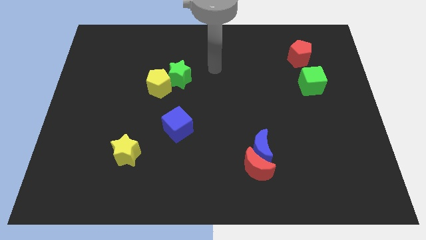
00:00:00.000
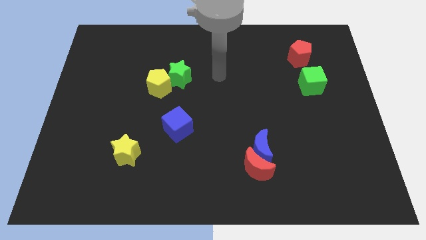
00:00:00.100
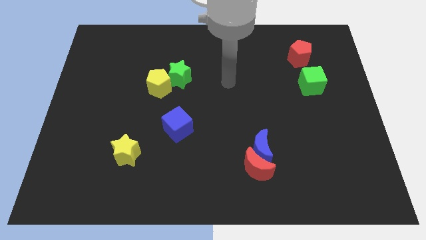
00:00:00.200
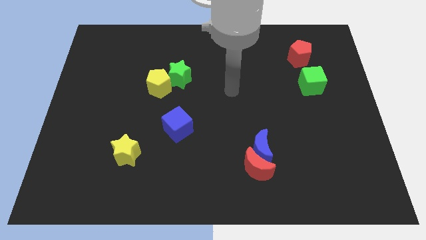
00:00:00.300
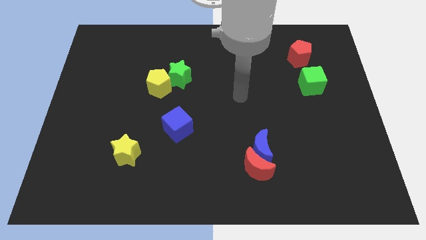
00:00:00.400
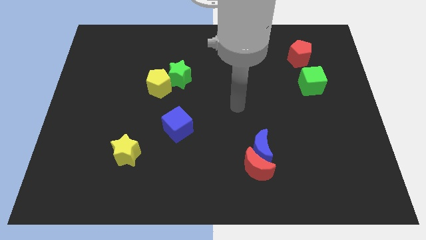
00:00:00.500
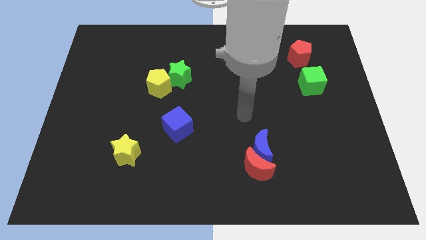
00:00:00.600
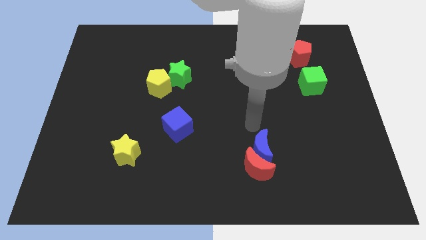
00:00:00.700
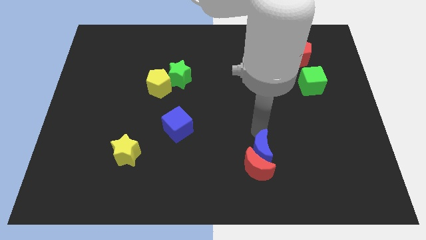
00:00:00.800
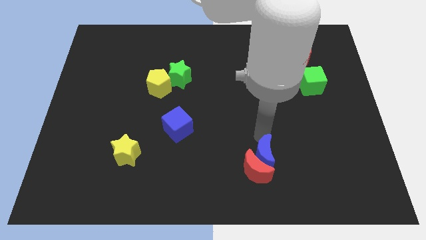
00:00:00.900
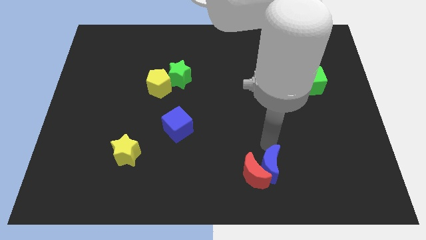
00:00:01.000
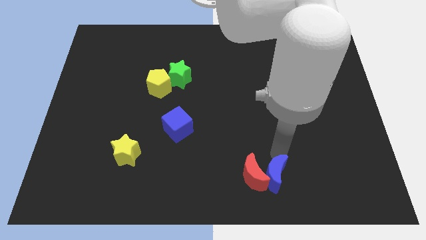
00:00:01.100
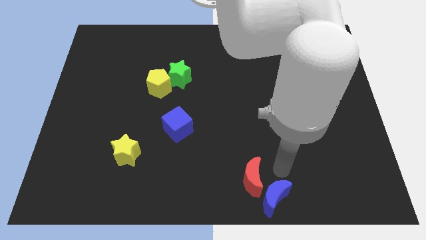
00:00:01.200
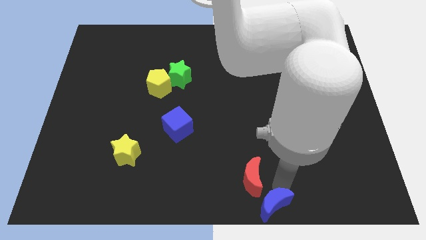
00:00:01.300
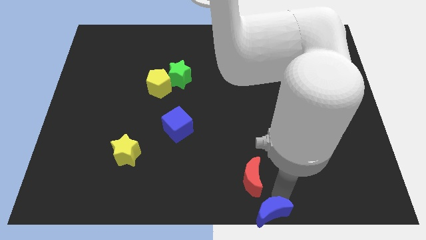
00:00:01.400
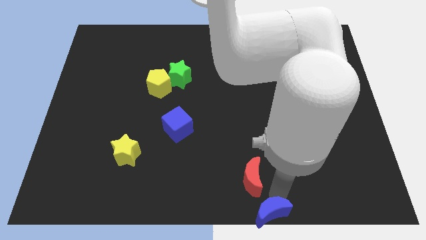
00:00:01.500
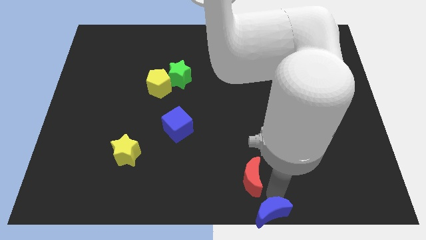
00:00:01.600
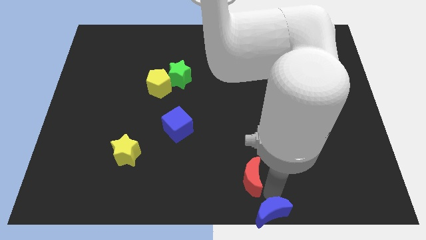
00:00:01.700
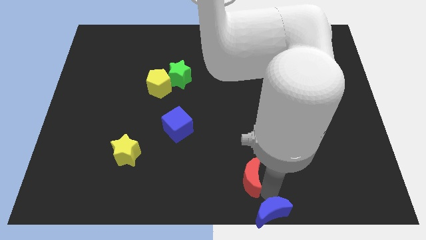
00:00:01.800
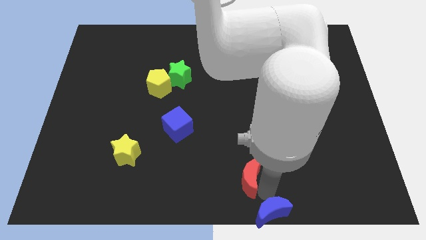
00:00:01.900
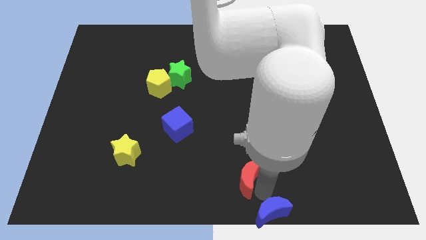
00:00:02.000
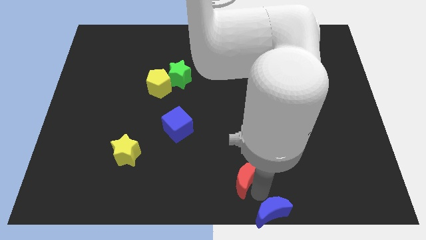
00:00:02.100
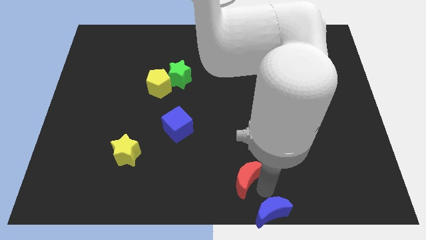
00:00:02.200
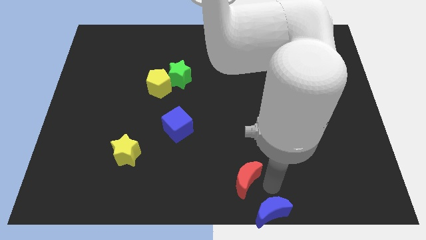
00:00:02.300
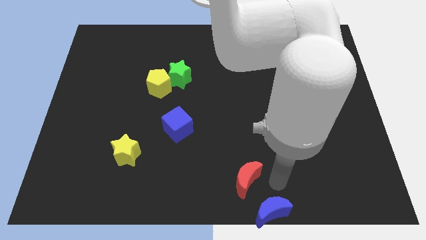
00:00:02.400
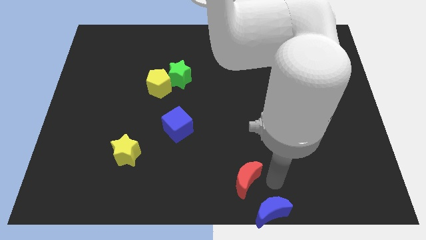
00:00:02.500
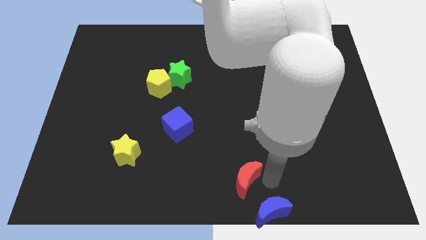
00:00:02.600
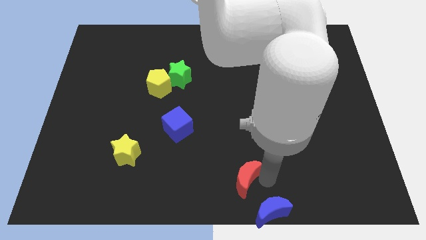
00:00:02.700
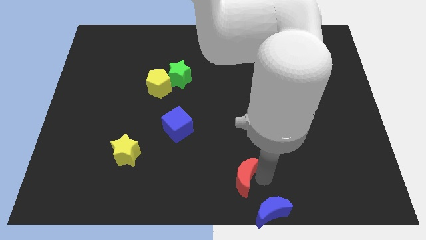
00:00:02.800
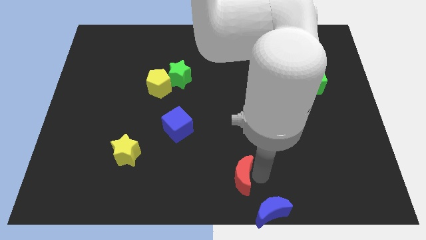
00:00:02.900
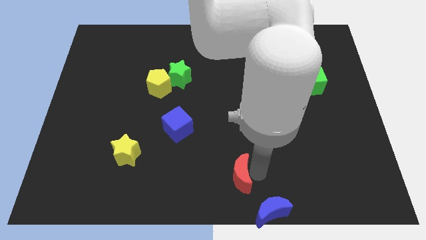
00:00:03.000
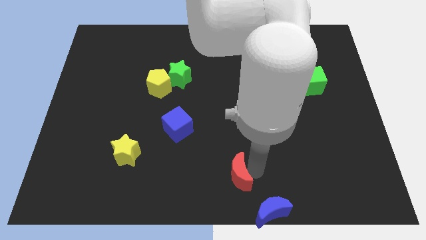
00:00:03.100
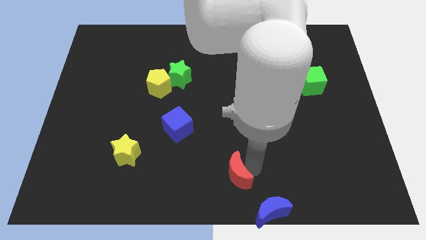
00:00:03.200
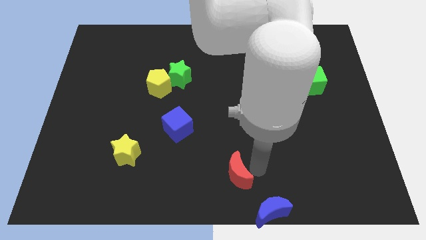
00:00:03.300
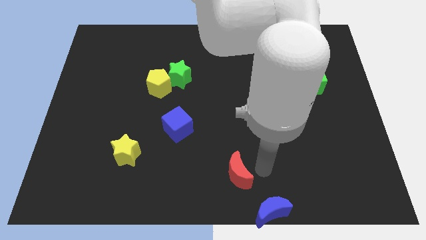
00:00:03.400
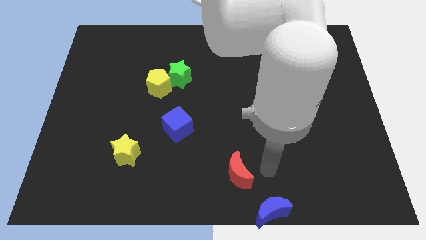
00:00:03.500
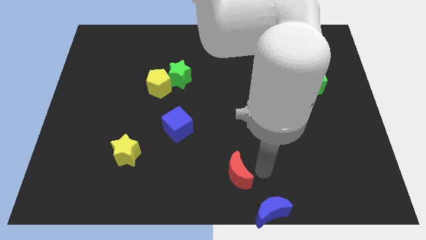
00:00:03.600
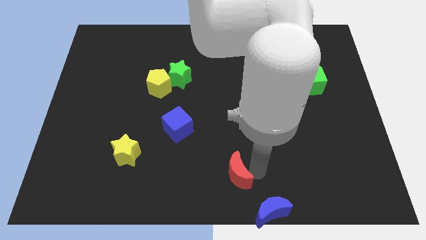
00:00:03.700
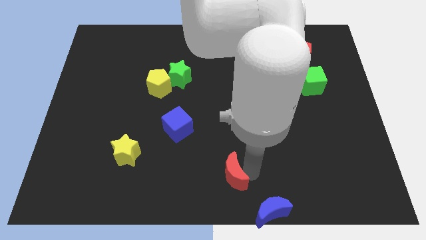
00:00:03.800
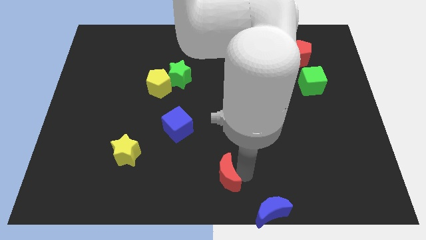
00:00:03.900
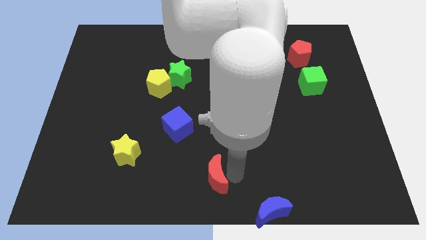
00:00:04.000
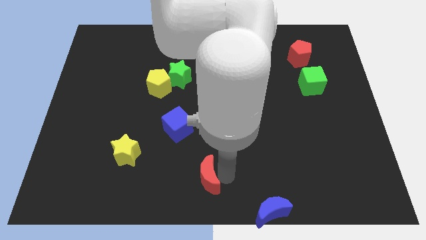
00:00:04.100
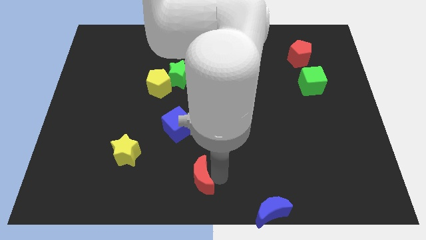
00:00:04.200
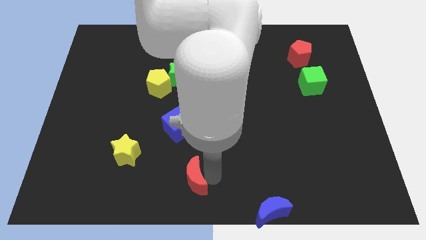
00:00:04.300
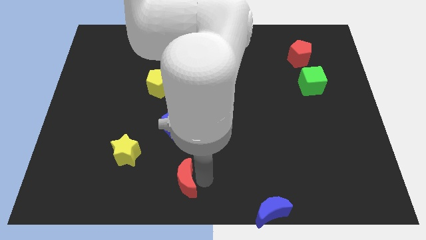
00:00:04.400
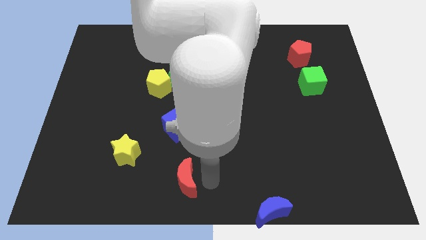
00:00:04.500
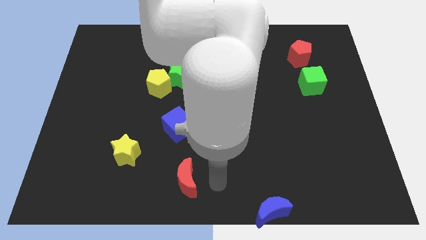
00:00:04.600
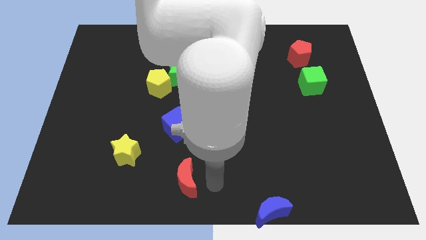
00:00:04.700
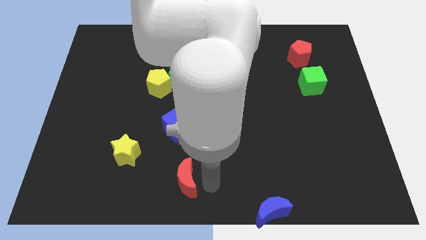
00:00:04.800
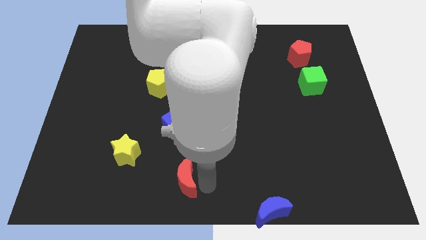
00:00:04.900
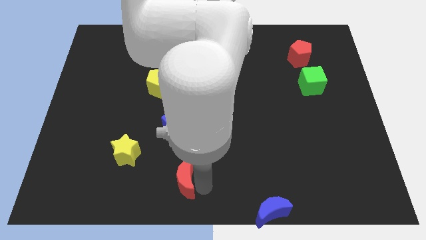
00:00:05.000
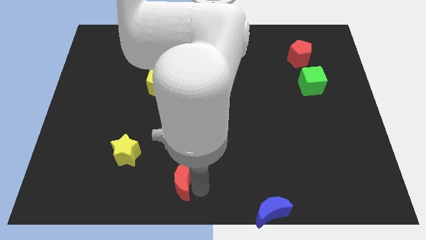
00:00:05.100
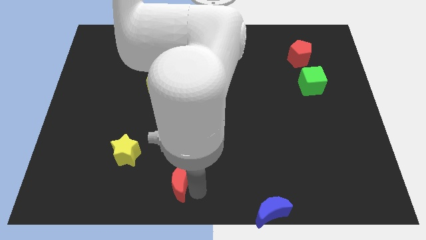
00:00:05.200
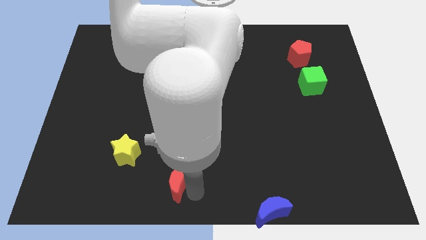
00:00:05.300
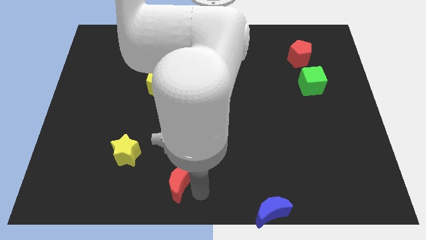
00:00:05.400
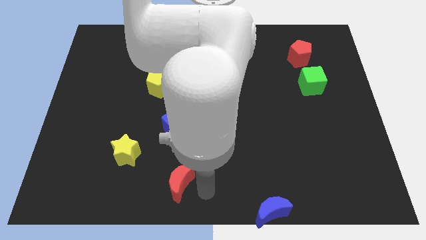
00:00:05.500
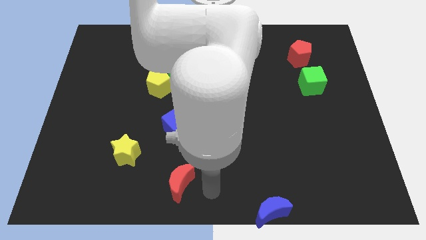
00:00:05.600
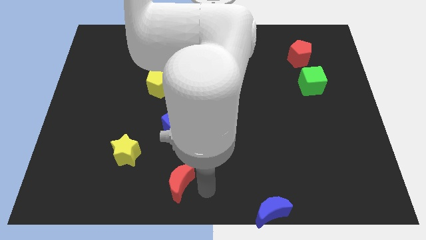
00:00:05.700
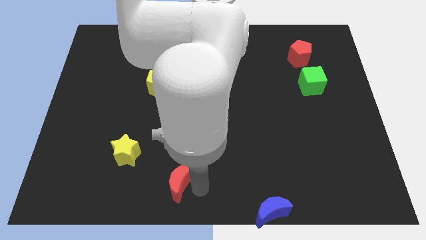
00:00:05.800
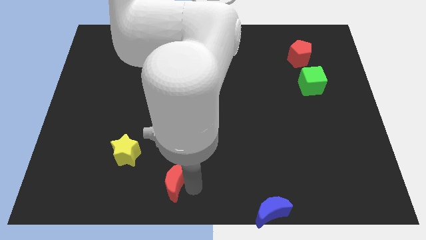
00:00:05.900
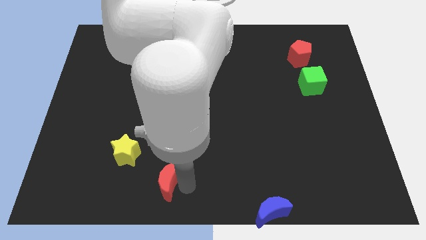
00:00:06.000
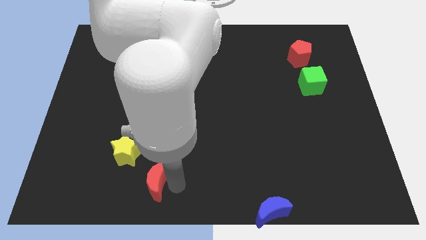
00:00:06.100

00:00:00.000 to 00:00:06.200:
push the red moon left

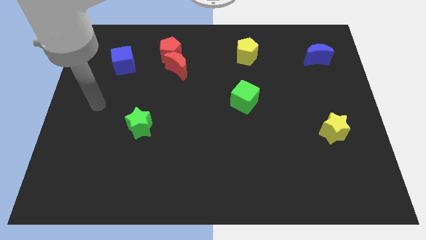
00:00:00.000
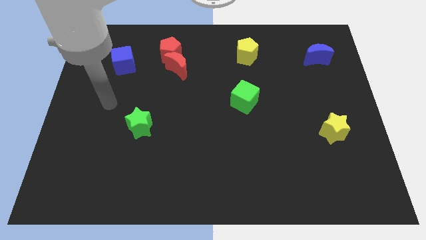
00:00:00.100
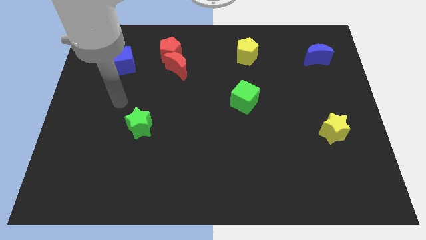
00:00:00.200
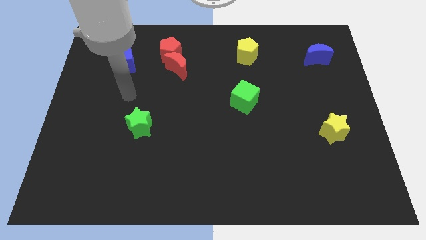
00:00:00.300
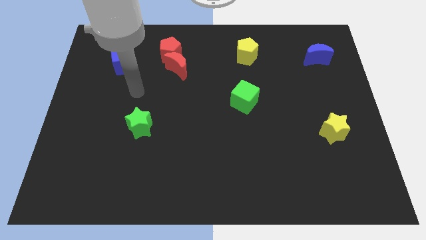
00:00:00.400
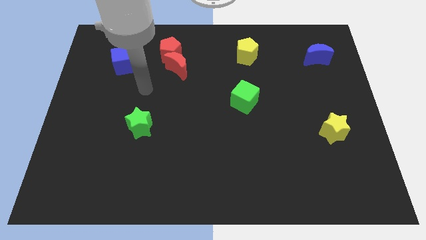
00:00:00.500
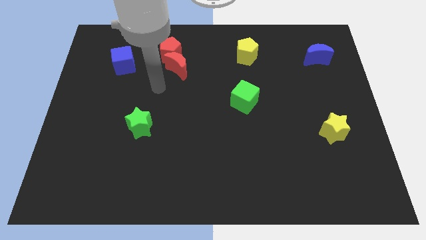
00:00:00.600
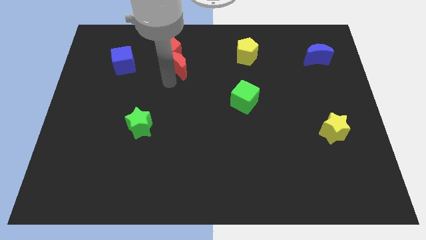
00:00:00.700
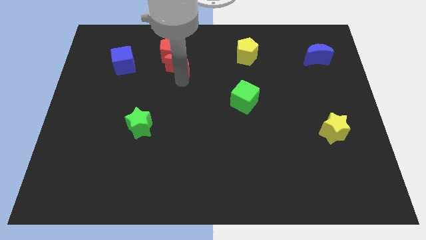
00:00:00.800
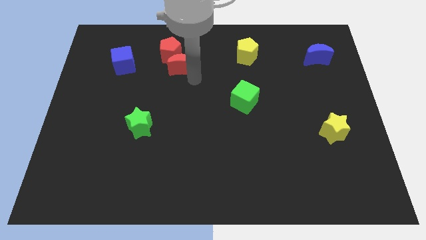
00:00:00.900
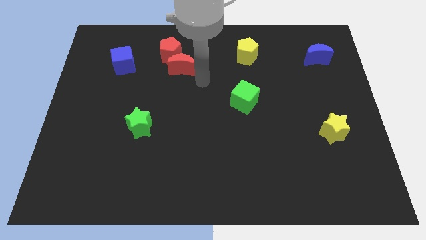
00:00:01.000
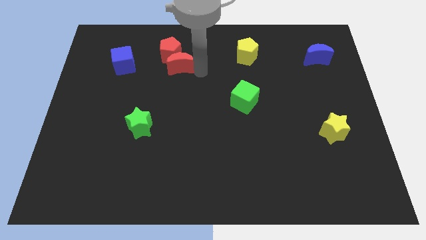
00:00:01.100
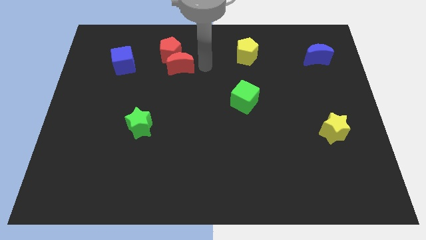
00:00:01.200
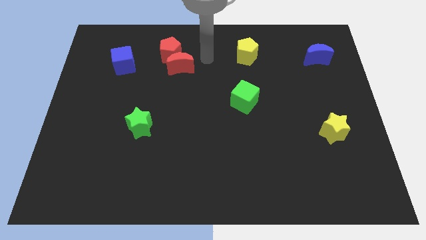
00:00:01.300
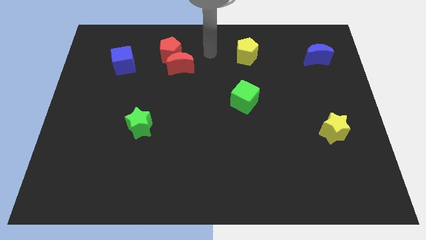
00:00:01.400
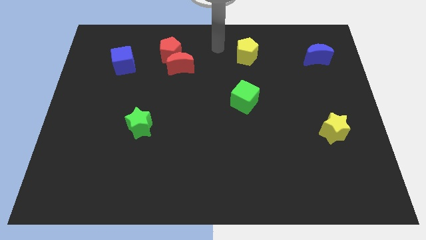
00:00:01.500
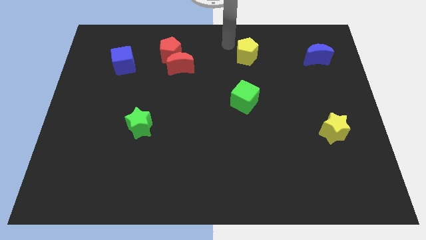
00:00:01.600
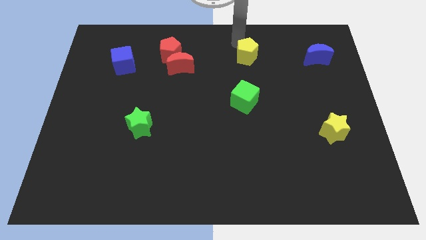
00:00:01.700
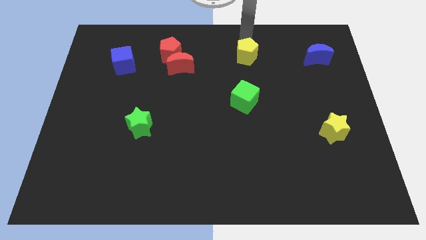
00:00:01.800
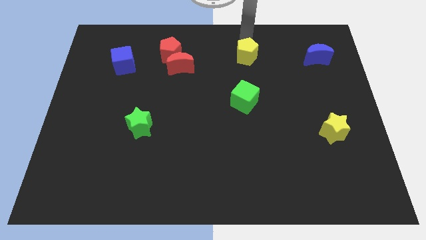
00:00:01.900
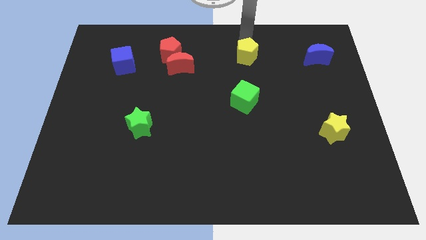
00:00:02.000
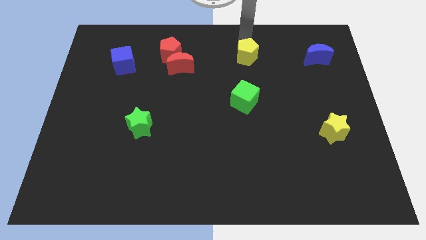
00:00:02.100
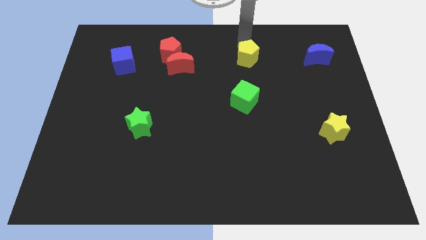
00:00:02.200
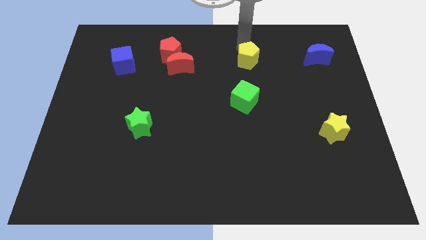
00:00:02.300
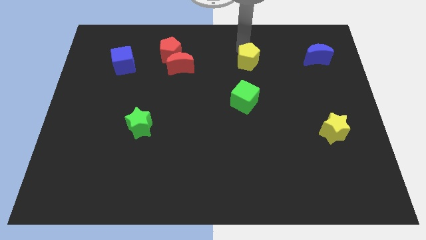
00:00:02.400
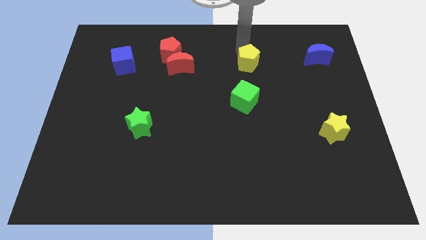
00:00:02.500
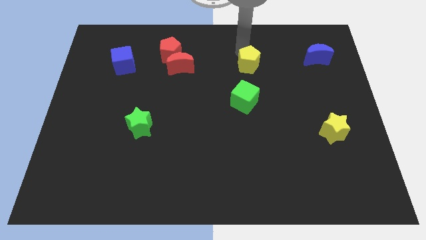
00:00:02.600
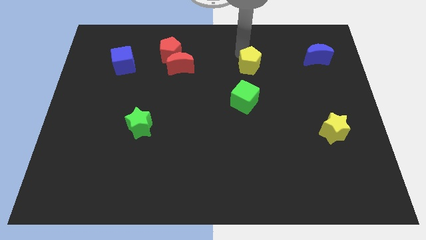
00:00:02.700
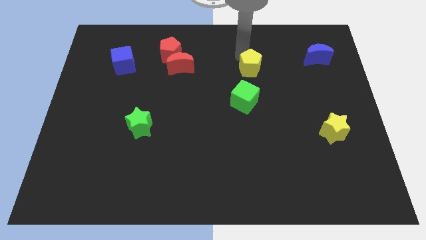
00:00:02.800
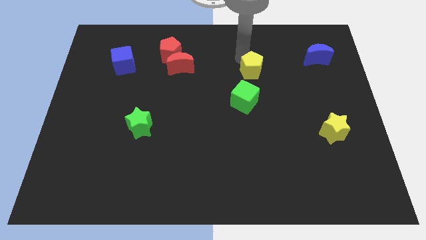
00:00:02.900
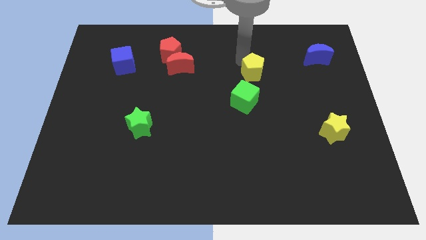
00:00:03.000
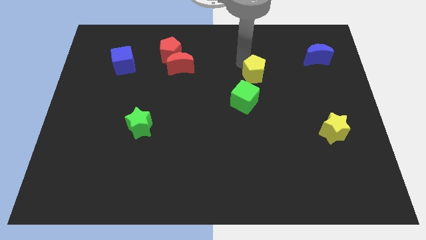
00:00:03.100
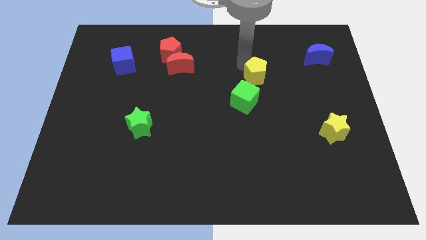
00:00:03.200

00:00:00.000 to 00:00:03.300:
slide the yellow pentagon downwards slightly
